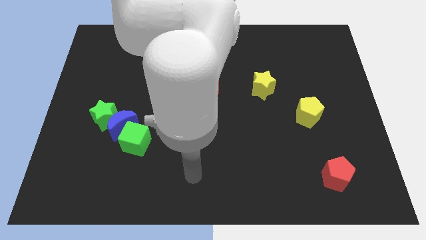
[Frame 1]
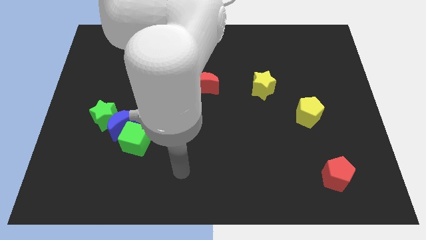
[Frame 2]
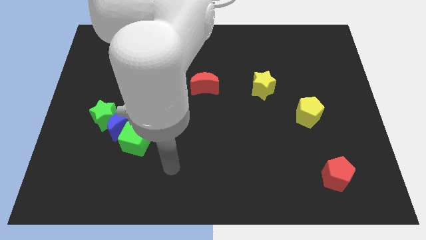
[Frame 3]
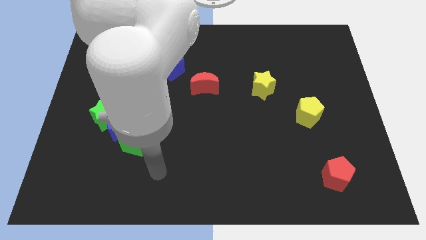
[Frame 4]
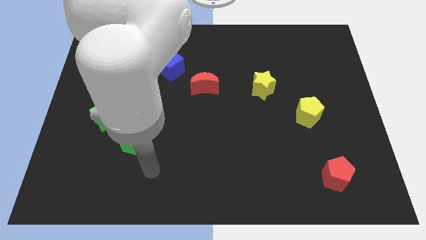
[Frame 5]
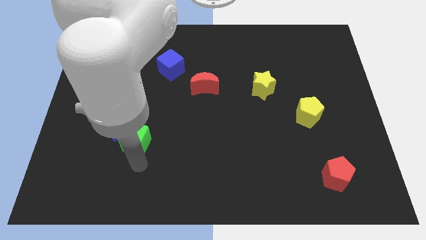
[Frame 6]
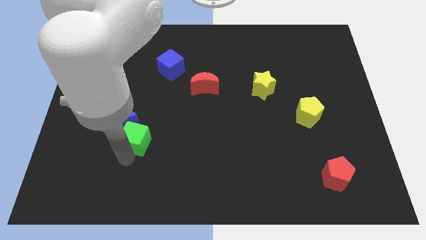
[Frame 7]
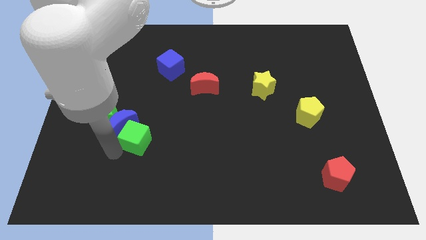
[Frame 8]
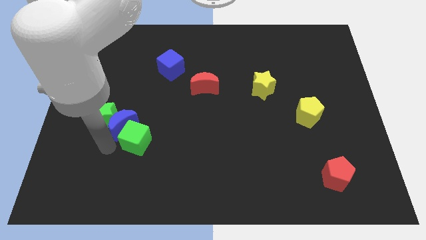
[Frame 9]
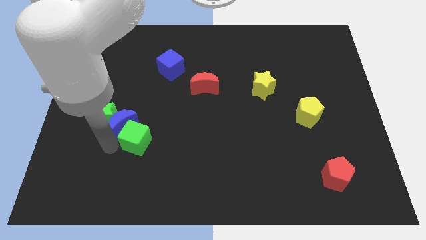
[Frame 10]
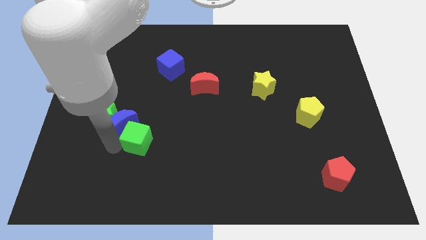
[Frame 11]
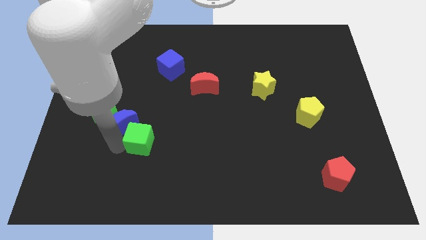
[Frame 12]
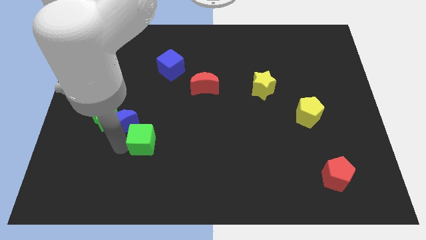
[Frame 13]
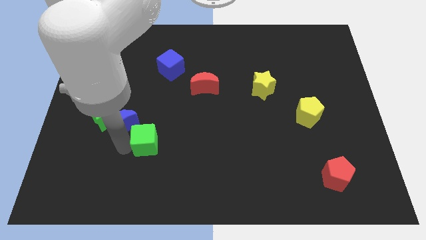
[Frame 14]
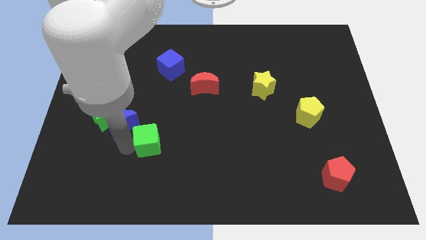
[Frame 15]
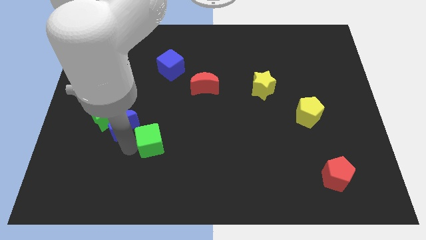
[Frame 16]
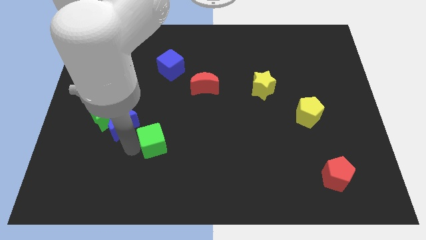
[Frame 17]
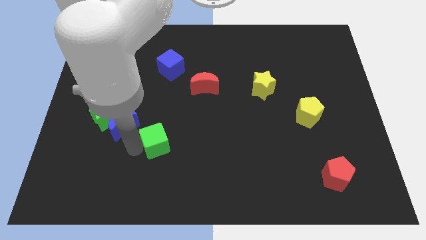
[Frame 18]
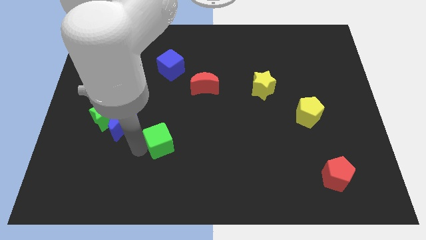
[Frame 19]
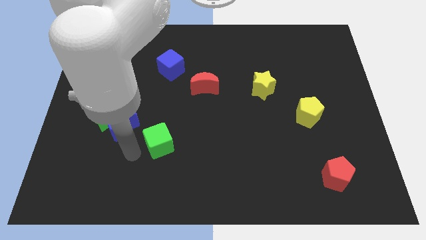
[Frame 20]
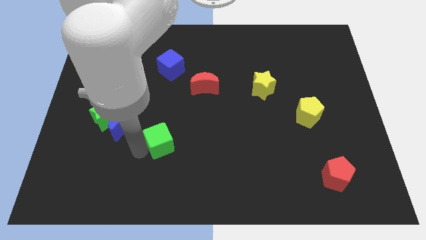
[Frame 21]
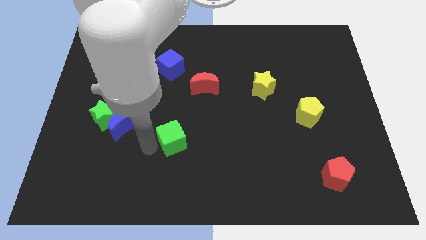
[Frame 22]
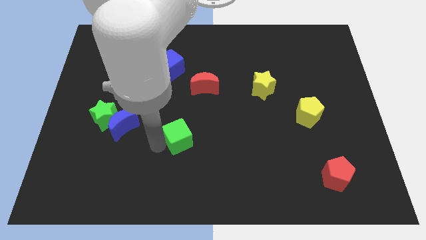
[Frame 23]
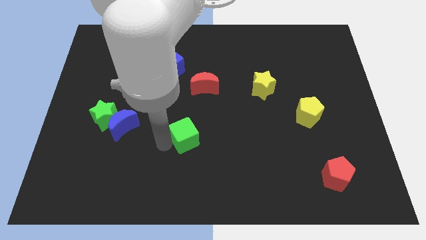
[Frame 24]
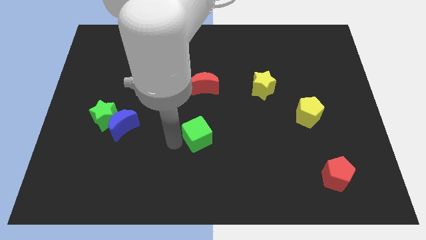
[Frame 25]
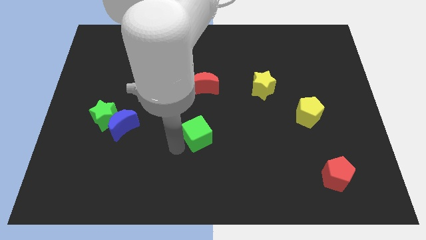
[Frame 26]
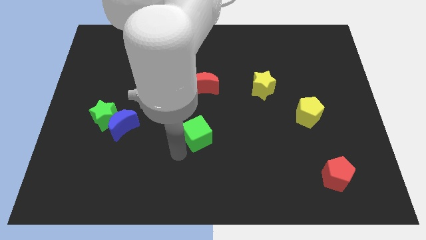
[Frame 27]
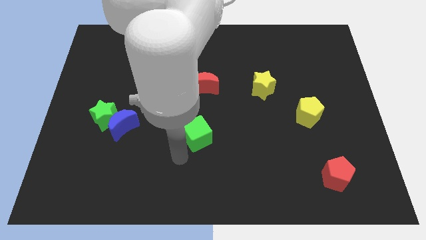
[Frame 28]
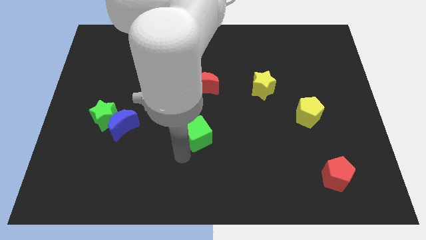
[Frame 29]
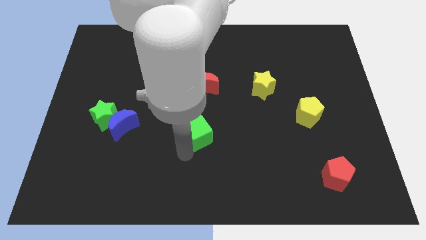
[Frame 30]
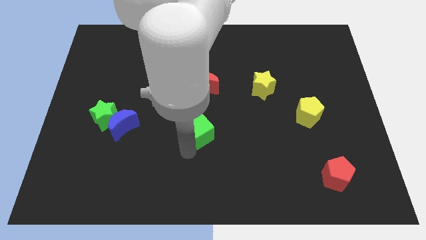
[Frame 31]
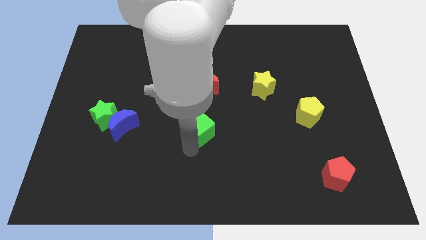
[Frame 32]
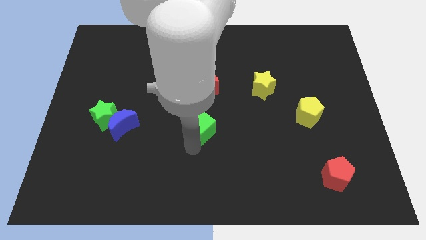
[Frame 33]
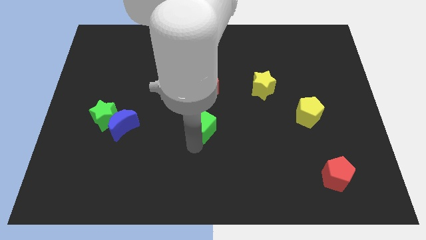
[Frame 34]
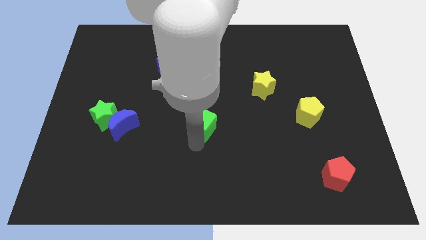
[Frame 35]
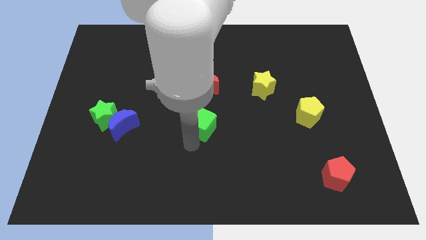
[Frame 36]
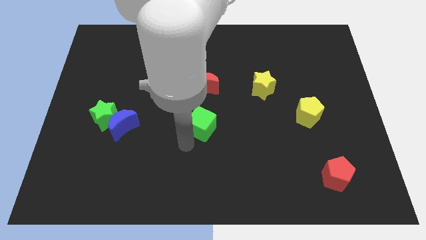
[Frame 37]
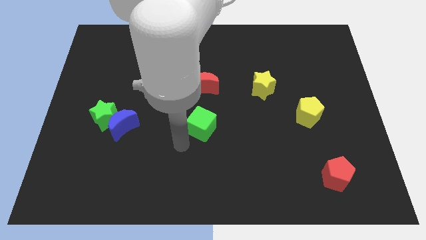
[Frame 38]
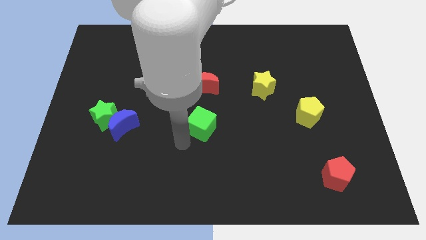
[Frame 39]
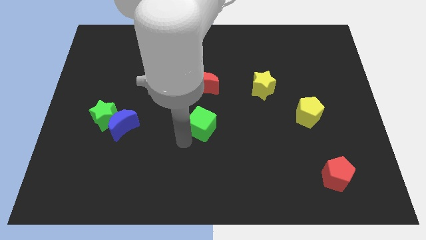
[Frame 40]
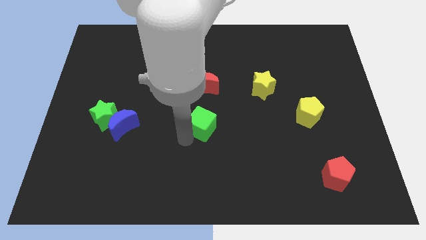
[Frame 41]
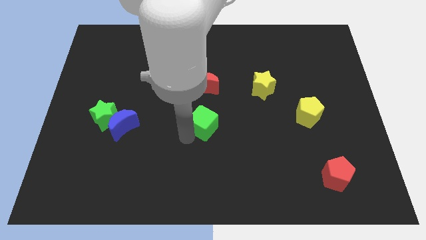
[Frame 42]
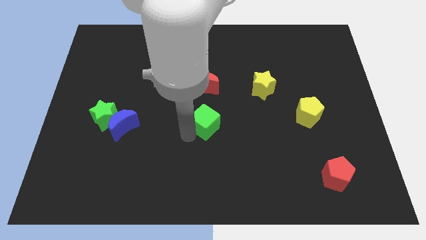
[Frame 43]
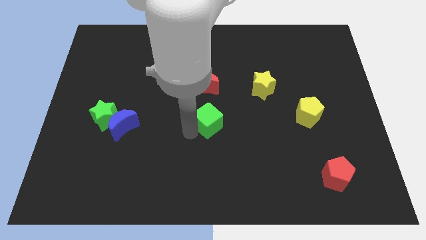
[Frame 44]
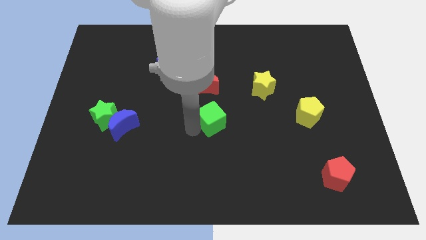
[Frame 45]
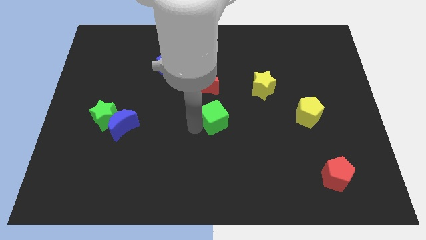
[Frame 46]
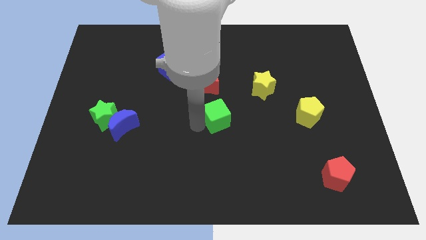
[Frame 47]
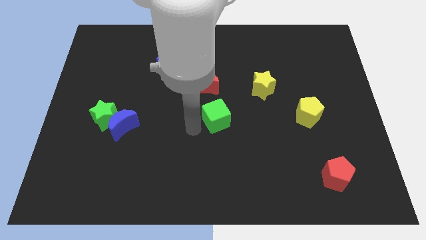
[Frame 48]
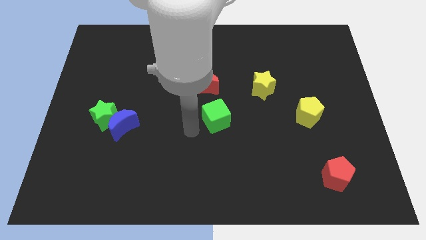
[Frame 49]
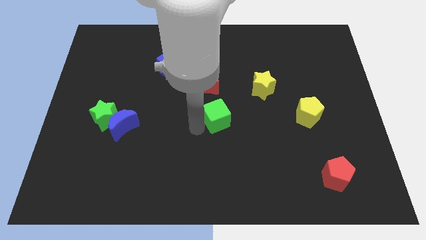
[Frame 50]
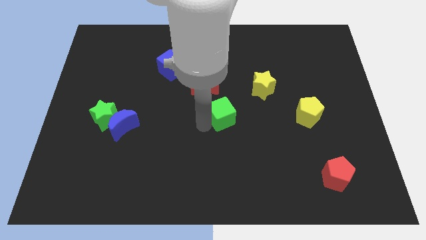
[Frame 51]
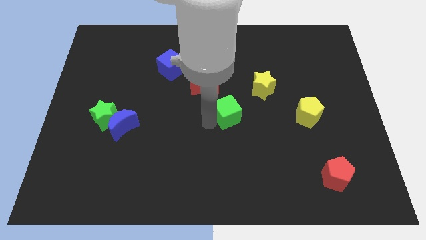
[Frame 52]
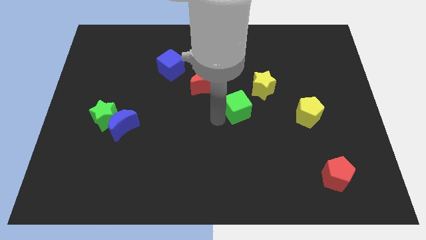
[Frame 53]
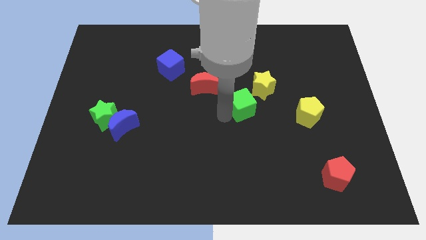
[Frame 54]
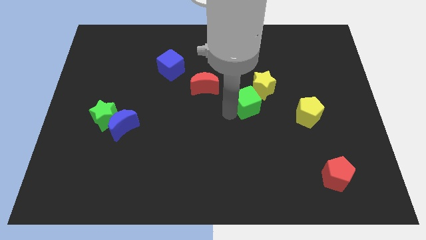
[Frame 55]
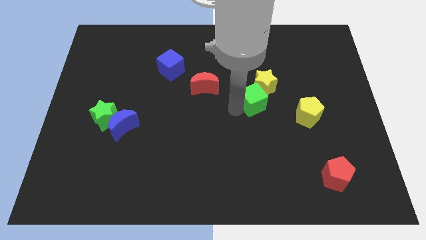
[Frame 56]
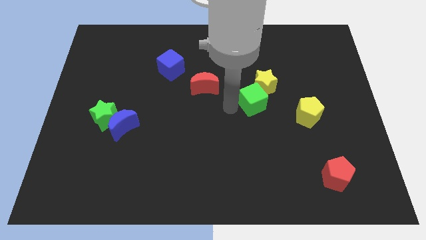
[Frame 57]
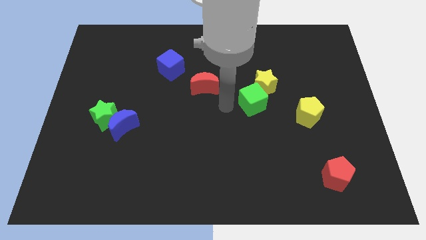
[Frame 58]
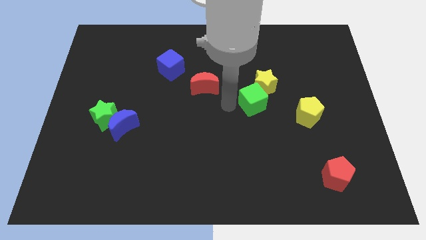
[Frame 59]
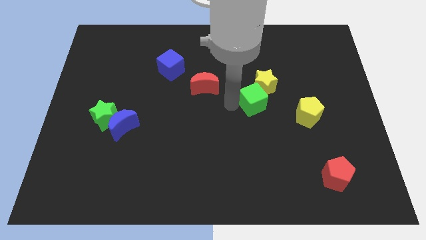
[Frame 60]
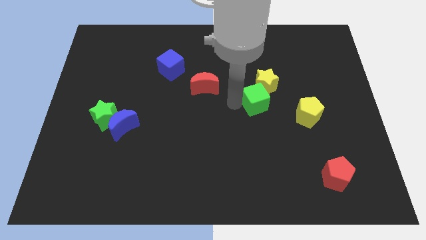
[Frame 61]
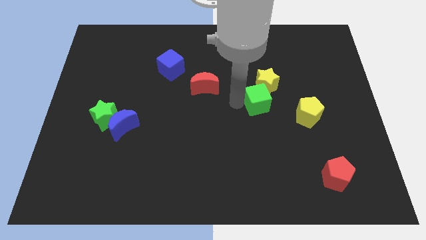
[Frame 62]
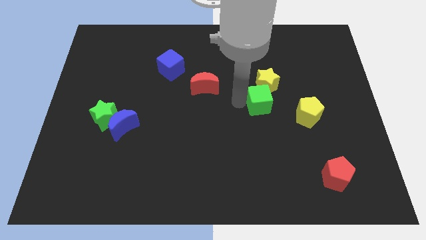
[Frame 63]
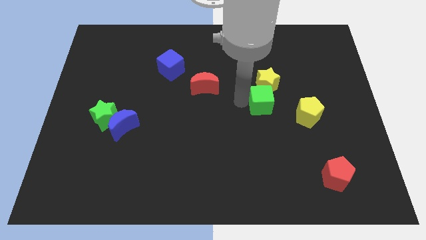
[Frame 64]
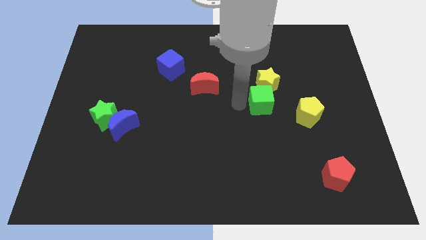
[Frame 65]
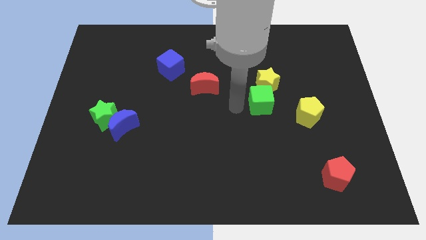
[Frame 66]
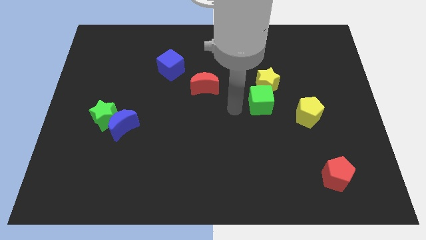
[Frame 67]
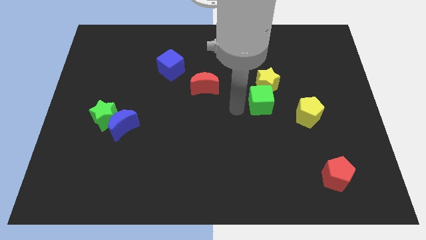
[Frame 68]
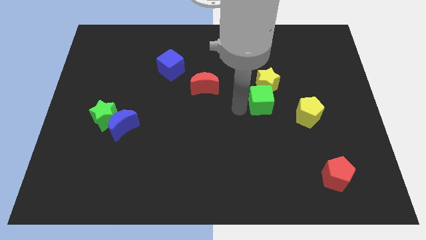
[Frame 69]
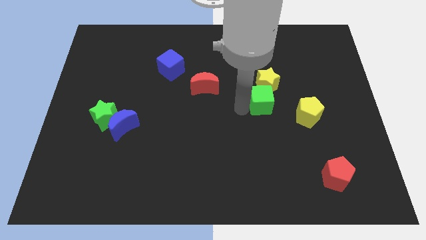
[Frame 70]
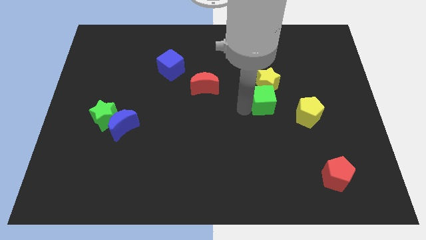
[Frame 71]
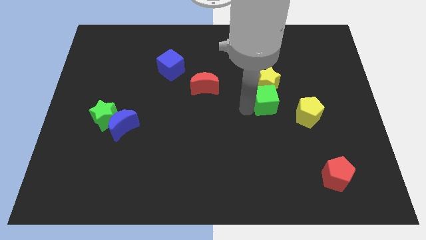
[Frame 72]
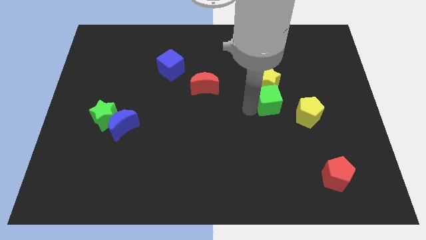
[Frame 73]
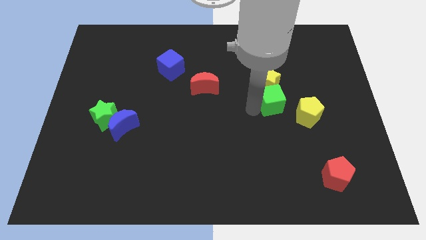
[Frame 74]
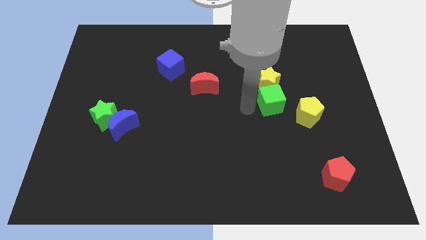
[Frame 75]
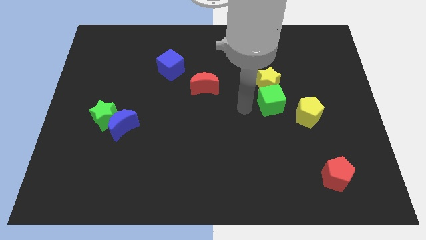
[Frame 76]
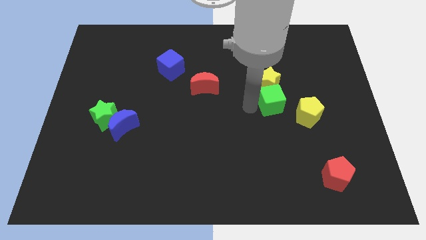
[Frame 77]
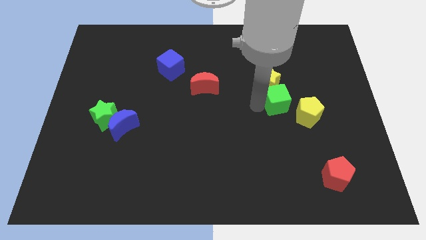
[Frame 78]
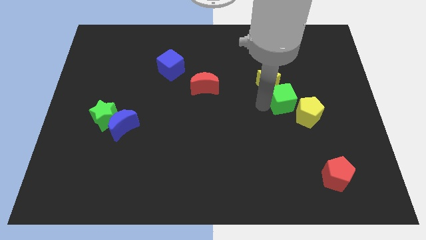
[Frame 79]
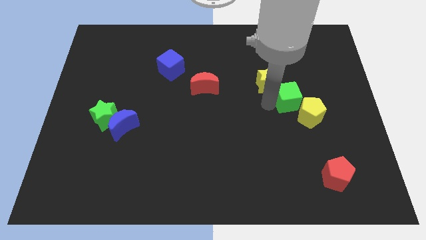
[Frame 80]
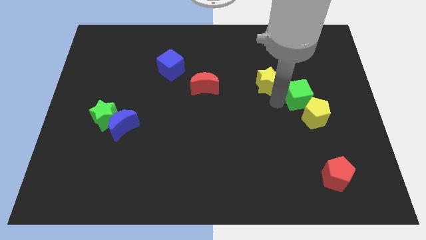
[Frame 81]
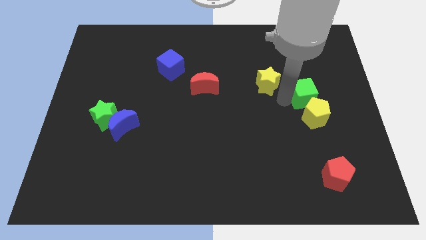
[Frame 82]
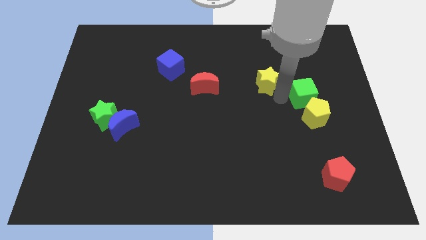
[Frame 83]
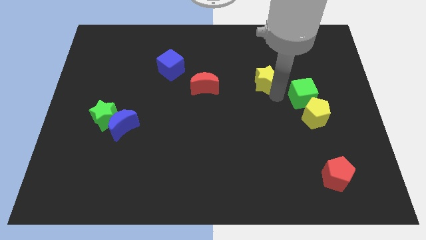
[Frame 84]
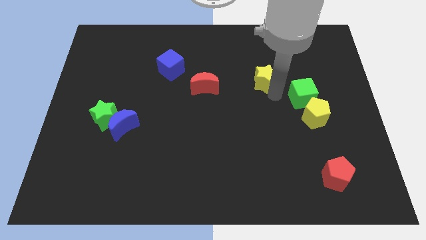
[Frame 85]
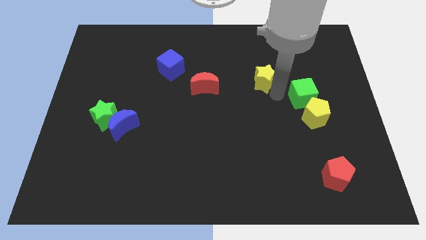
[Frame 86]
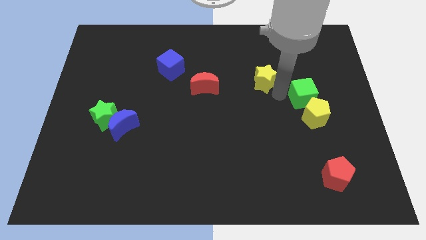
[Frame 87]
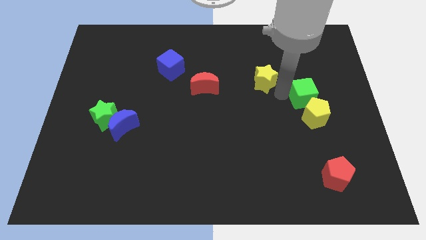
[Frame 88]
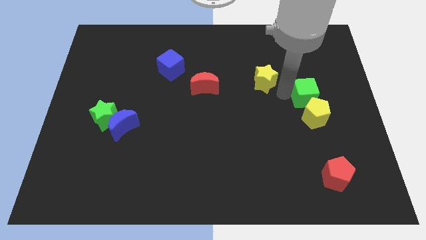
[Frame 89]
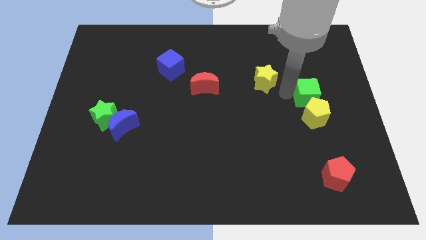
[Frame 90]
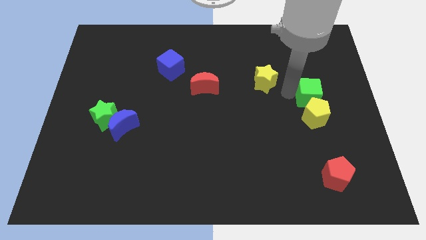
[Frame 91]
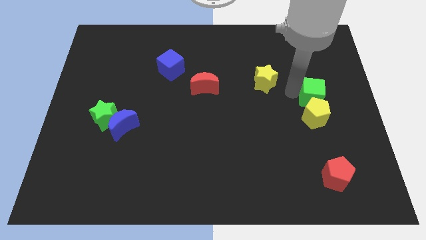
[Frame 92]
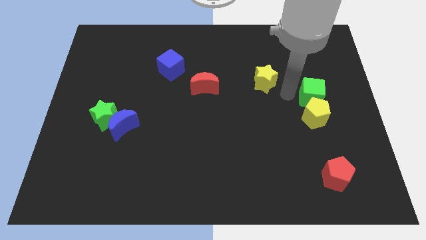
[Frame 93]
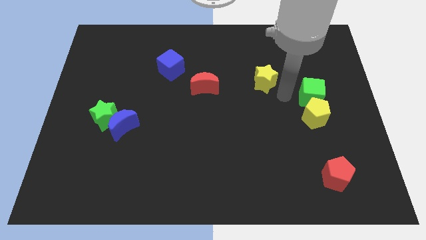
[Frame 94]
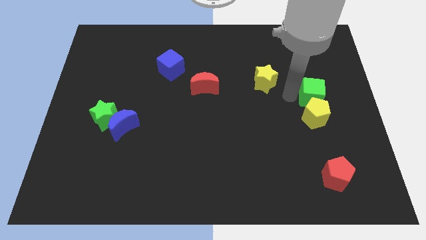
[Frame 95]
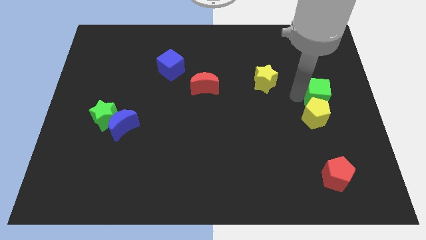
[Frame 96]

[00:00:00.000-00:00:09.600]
slide the green cube to the center right
